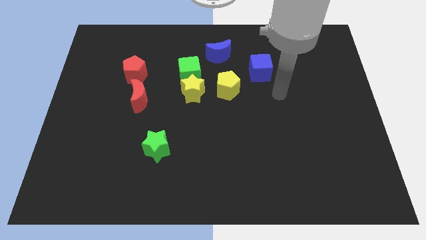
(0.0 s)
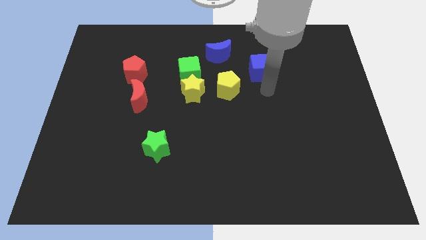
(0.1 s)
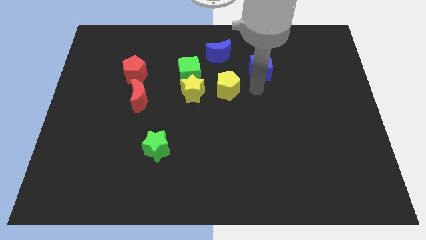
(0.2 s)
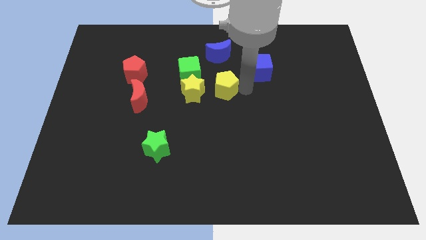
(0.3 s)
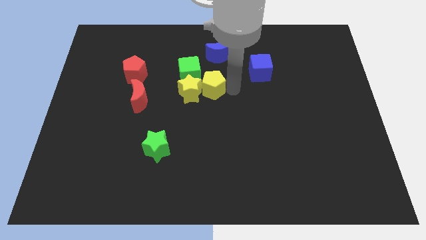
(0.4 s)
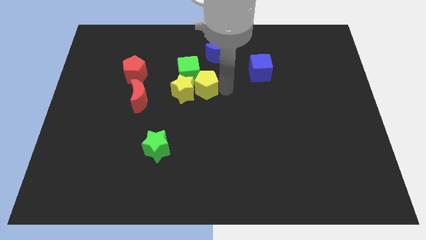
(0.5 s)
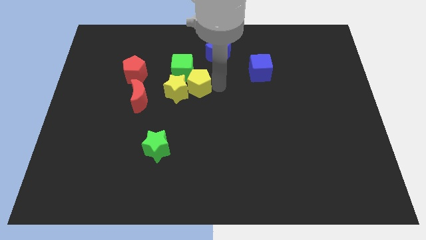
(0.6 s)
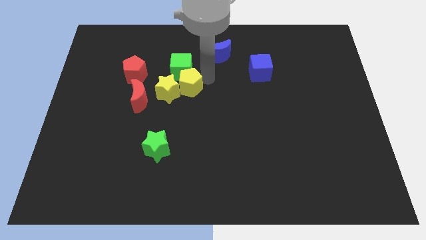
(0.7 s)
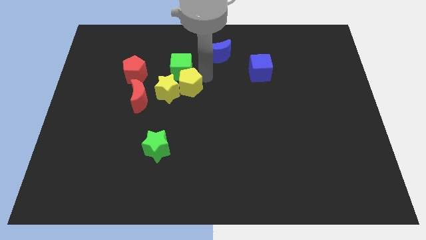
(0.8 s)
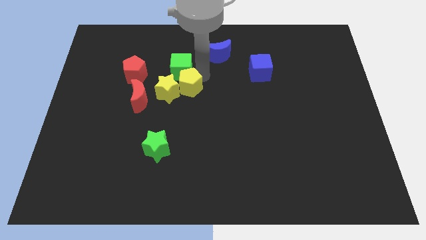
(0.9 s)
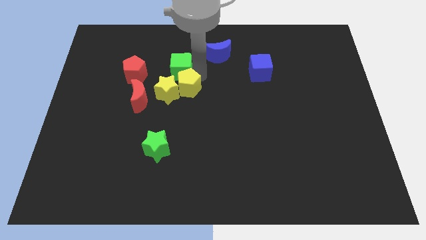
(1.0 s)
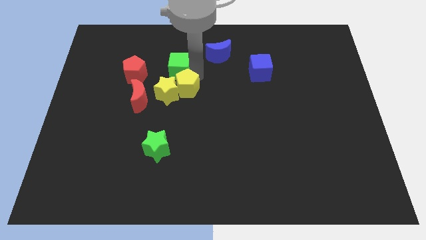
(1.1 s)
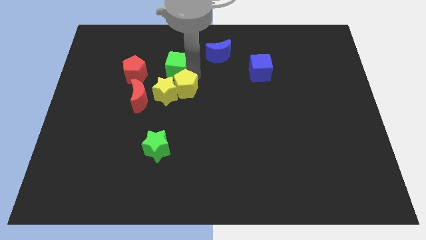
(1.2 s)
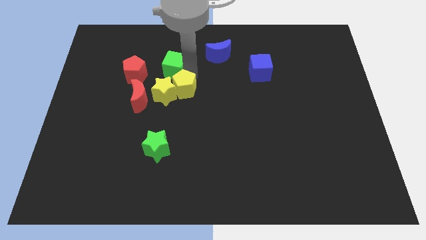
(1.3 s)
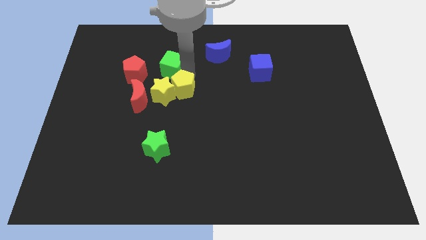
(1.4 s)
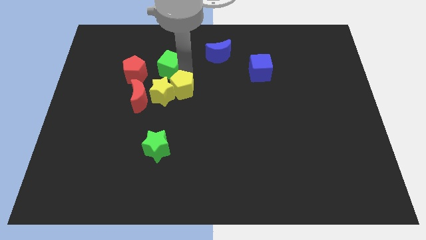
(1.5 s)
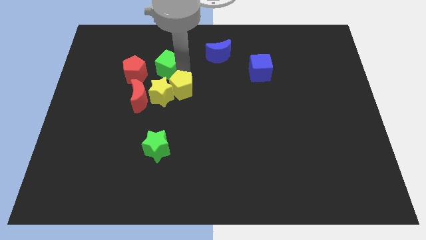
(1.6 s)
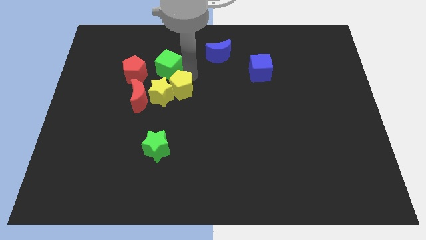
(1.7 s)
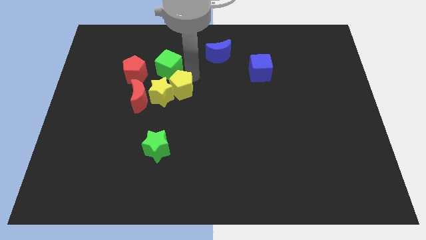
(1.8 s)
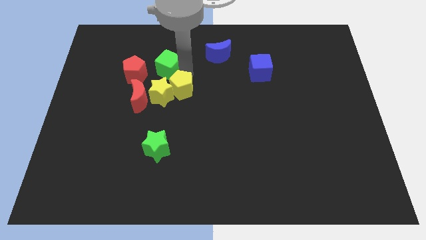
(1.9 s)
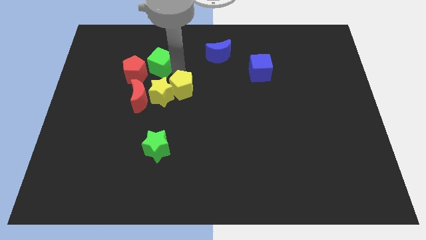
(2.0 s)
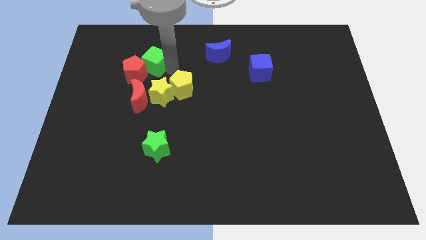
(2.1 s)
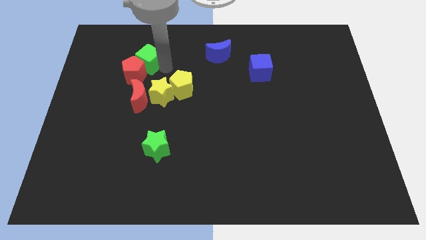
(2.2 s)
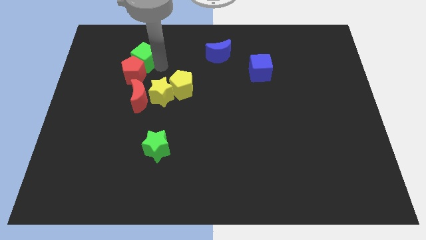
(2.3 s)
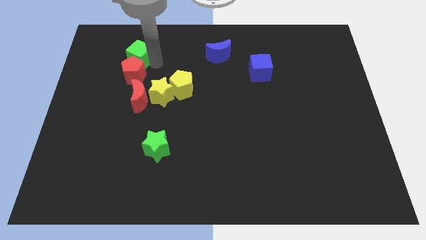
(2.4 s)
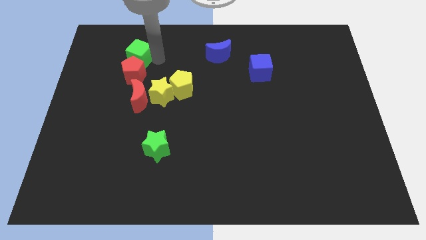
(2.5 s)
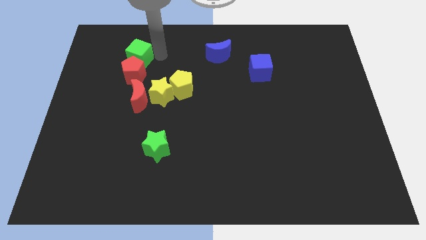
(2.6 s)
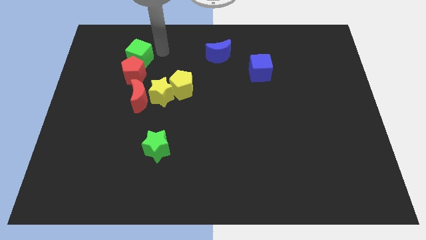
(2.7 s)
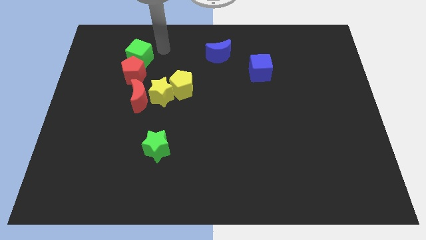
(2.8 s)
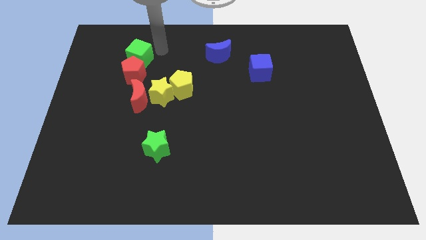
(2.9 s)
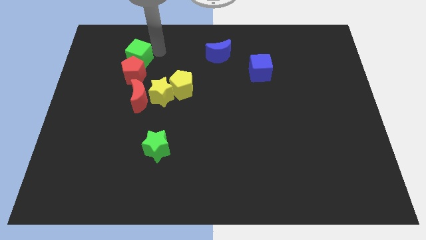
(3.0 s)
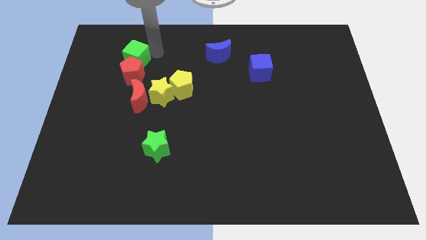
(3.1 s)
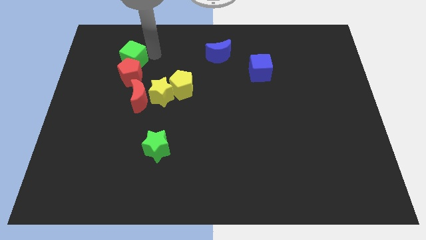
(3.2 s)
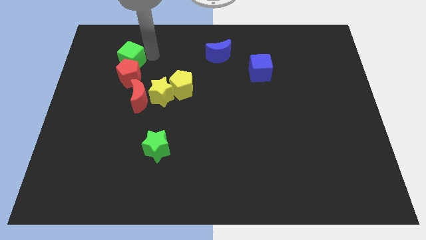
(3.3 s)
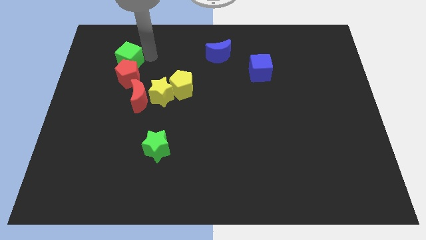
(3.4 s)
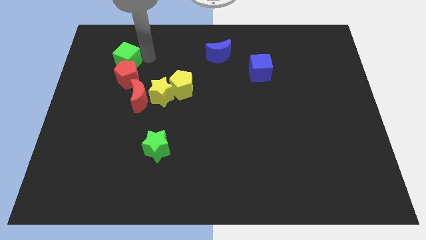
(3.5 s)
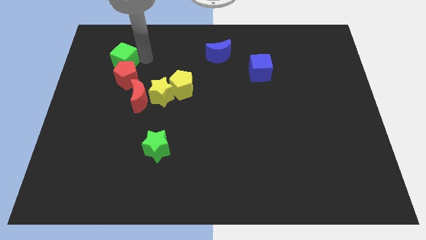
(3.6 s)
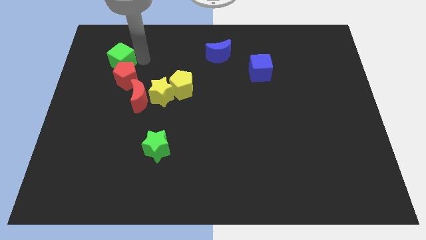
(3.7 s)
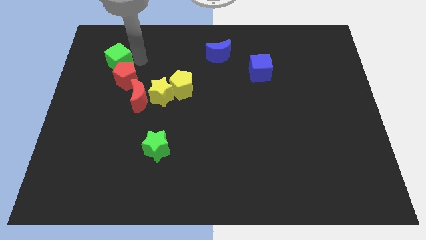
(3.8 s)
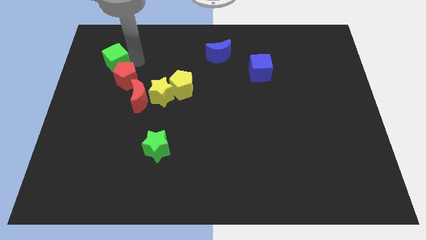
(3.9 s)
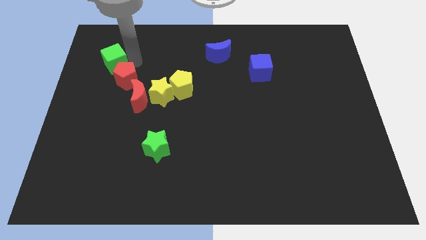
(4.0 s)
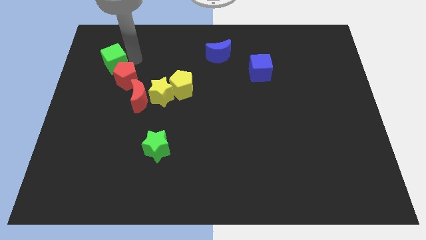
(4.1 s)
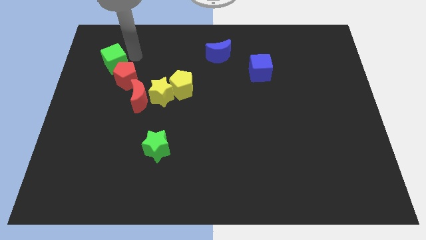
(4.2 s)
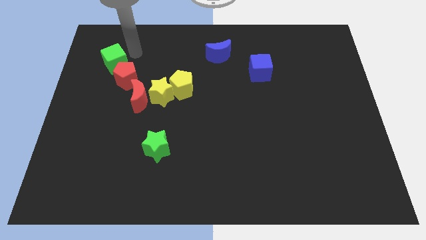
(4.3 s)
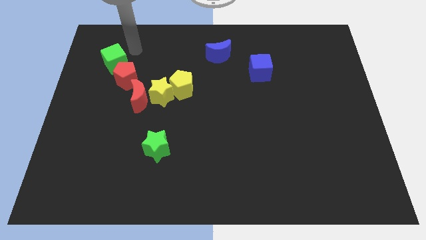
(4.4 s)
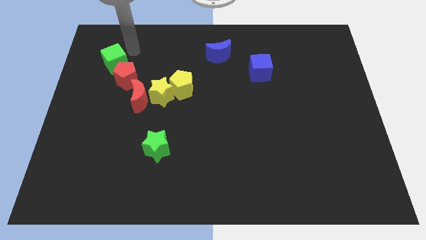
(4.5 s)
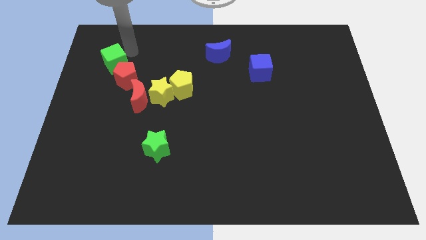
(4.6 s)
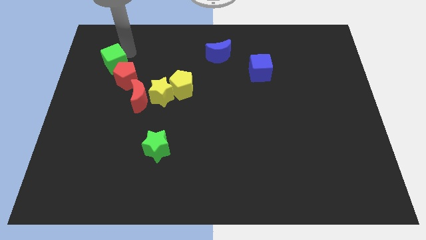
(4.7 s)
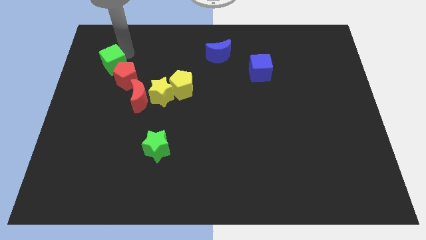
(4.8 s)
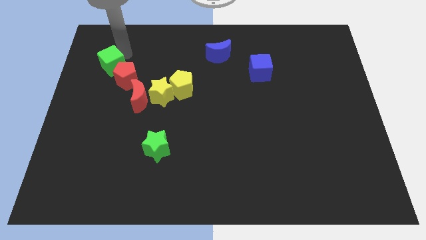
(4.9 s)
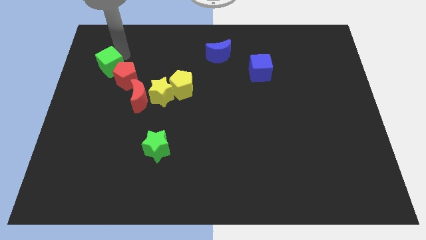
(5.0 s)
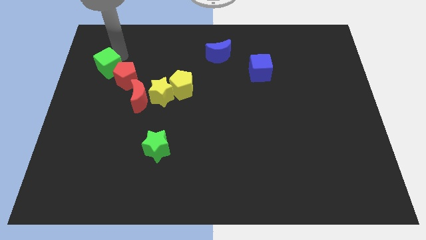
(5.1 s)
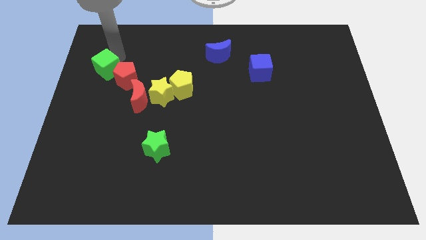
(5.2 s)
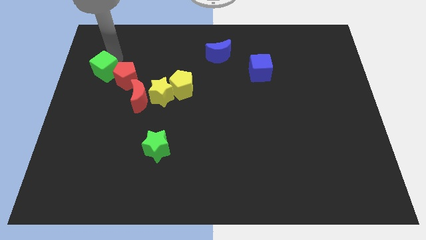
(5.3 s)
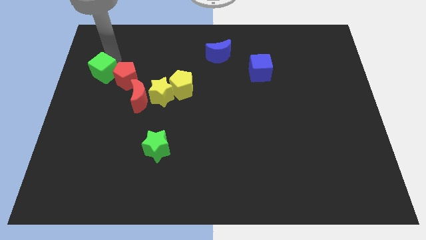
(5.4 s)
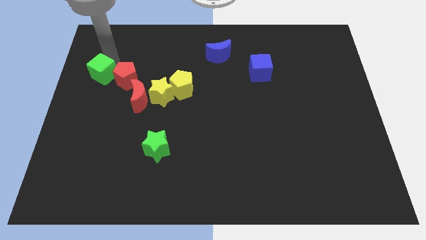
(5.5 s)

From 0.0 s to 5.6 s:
push the green cube to the left side
